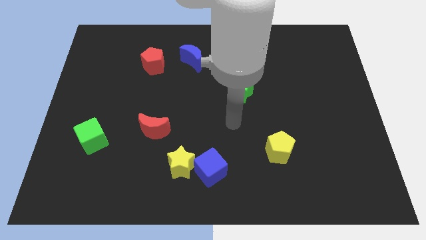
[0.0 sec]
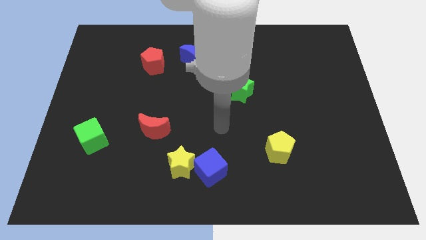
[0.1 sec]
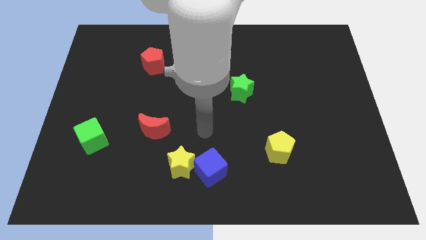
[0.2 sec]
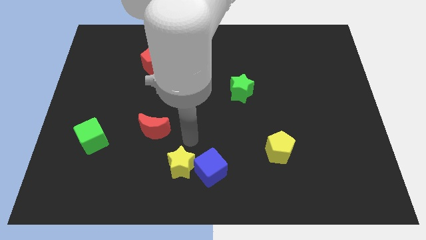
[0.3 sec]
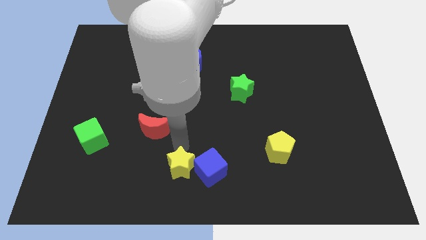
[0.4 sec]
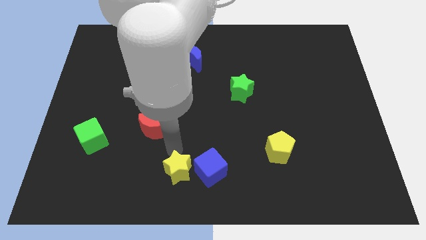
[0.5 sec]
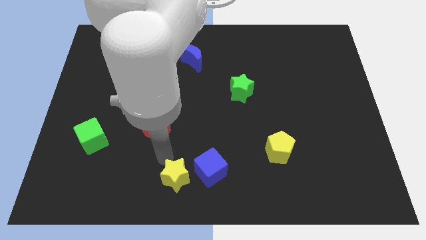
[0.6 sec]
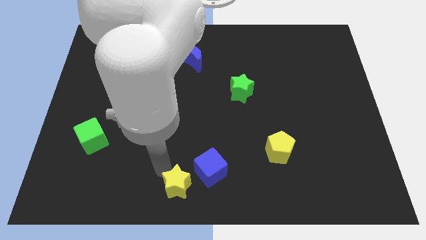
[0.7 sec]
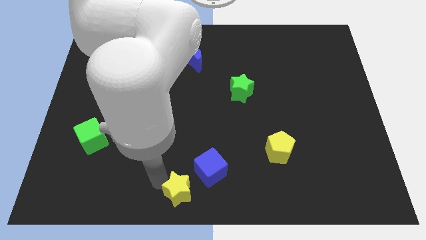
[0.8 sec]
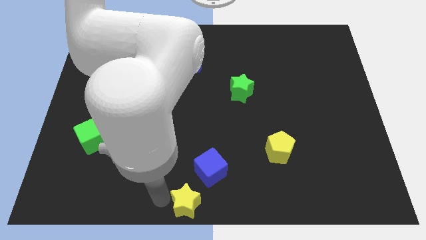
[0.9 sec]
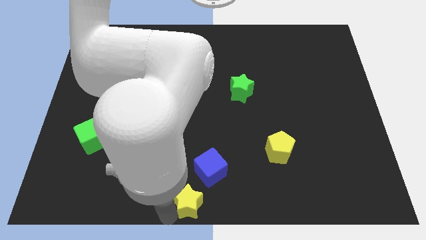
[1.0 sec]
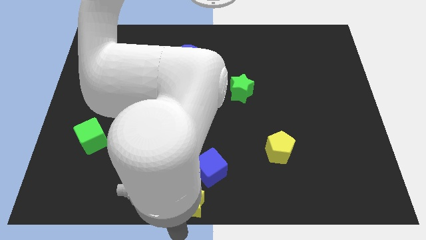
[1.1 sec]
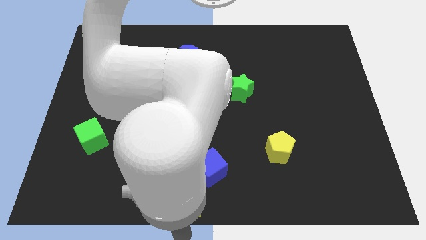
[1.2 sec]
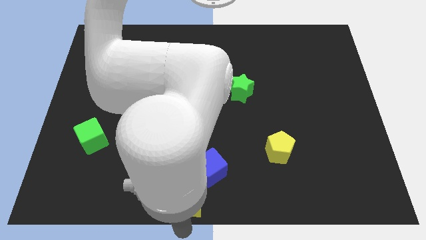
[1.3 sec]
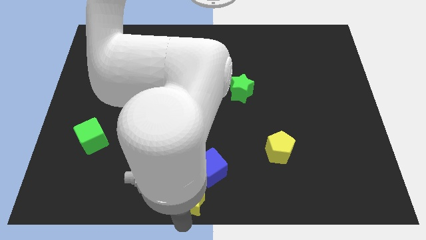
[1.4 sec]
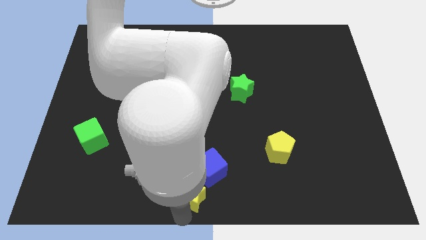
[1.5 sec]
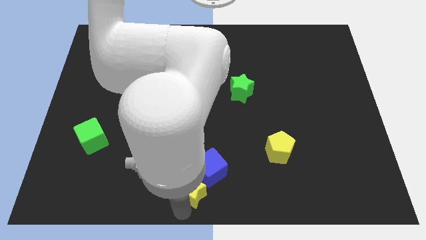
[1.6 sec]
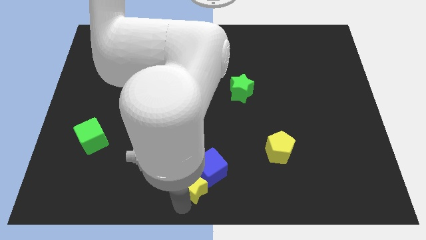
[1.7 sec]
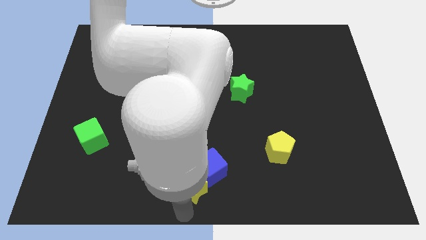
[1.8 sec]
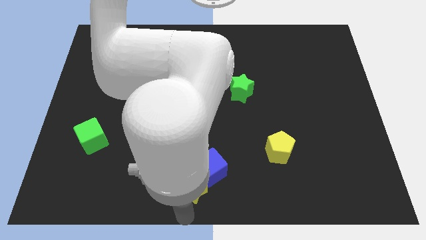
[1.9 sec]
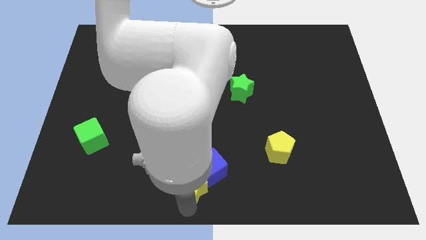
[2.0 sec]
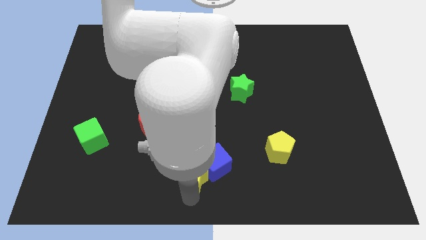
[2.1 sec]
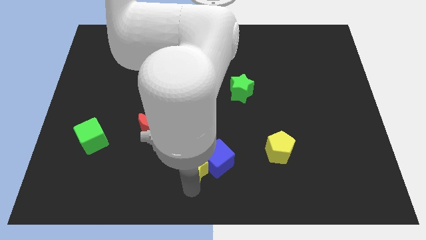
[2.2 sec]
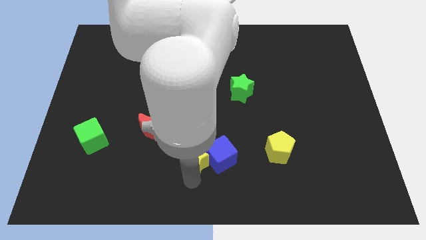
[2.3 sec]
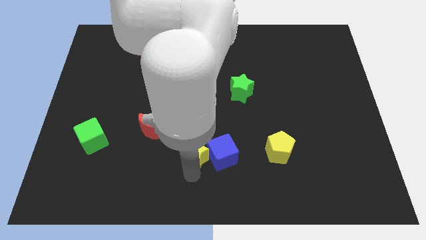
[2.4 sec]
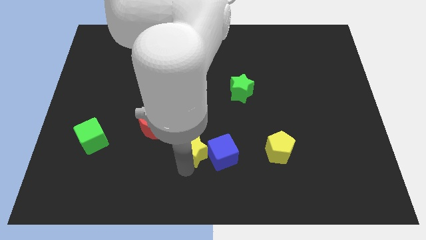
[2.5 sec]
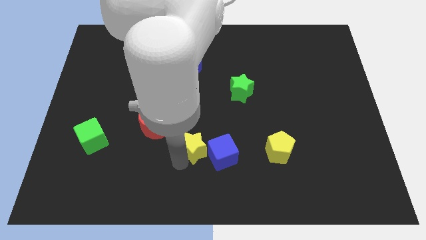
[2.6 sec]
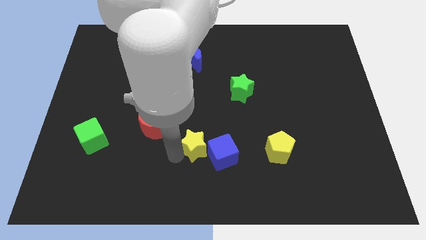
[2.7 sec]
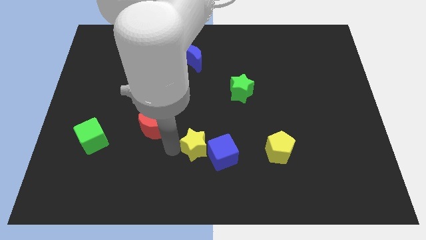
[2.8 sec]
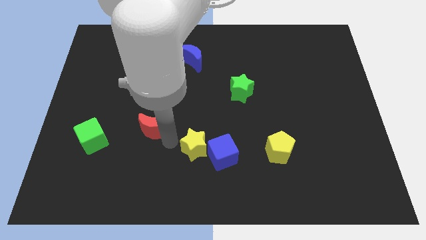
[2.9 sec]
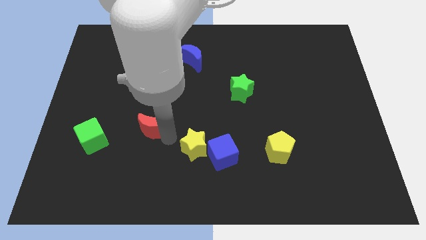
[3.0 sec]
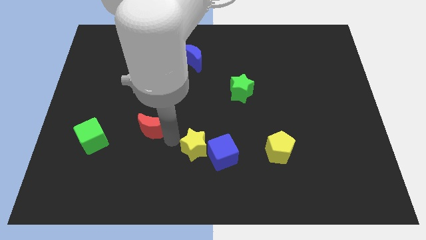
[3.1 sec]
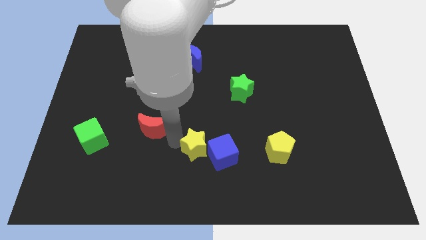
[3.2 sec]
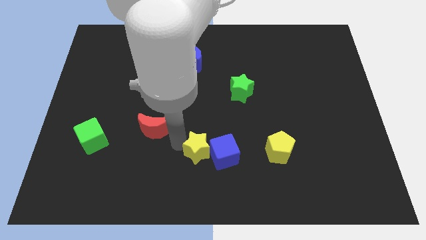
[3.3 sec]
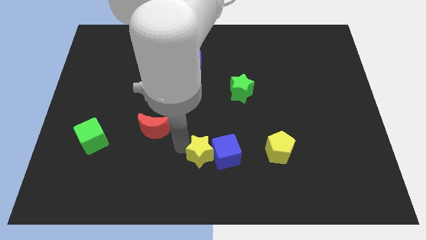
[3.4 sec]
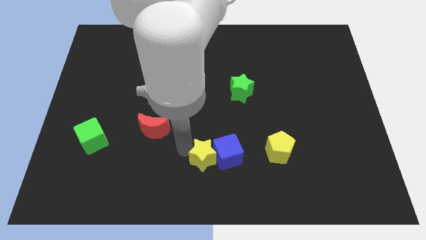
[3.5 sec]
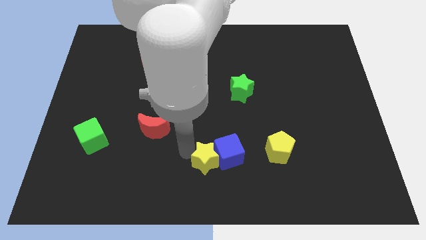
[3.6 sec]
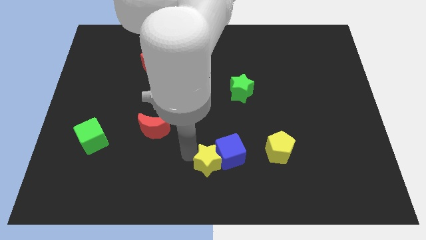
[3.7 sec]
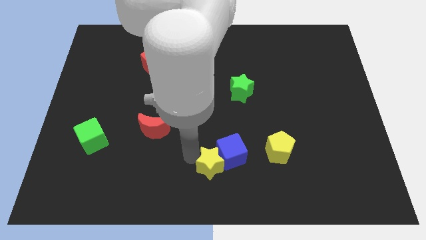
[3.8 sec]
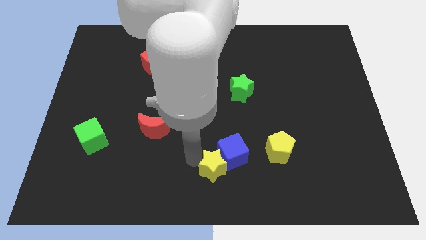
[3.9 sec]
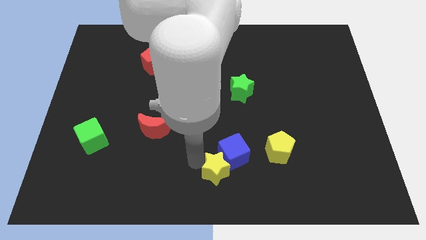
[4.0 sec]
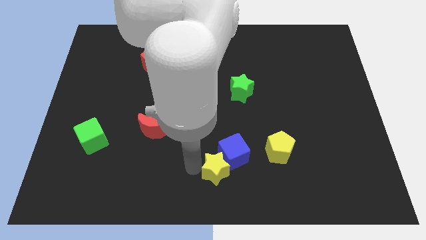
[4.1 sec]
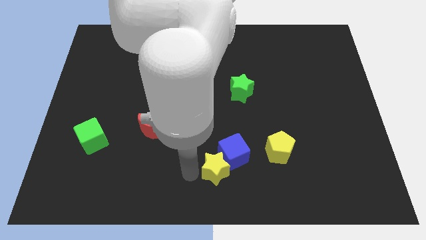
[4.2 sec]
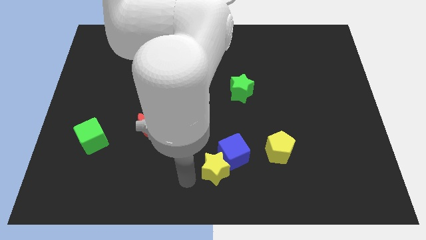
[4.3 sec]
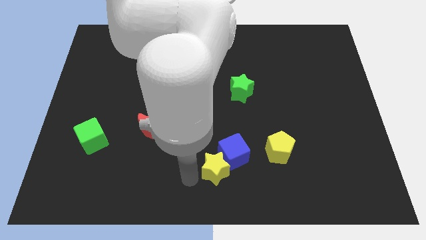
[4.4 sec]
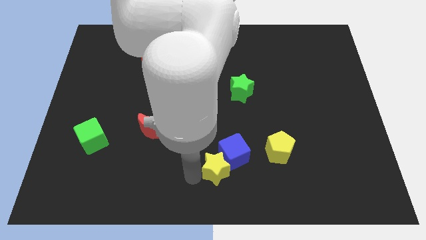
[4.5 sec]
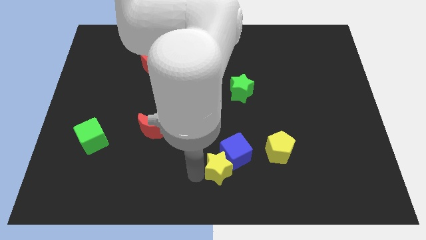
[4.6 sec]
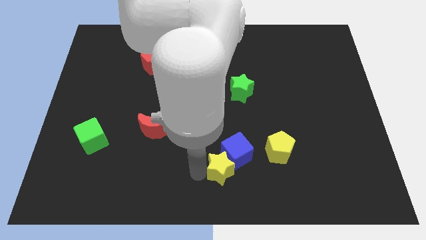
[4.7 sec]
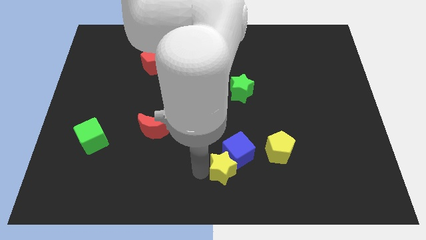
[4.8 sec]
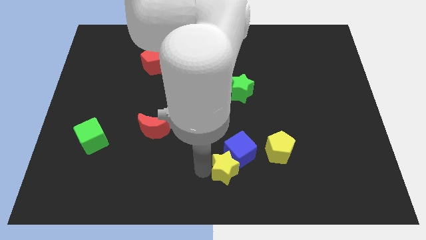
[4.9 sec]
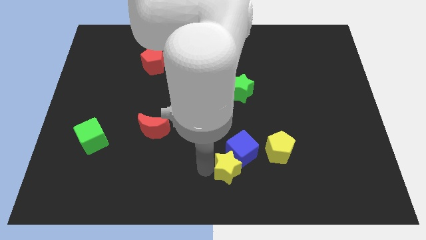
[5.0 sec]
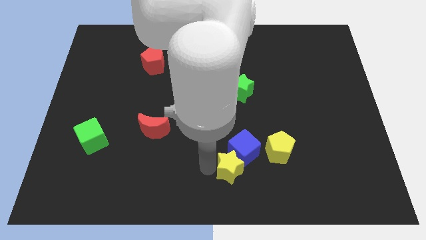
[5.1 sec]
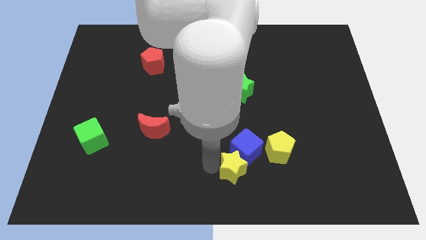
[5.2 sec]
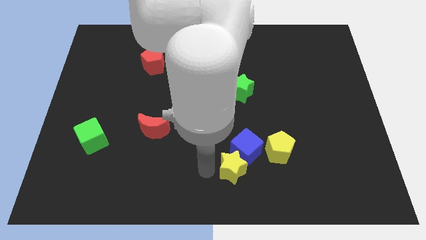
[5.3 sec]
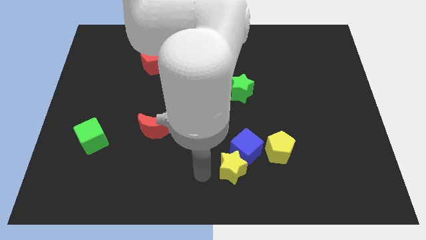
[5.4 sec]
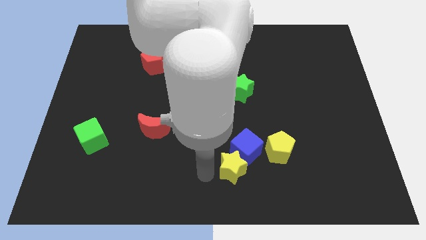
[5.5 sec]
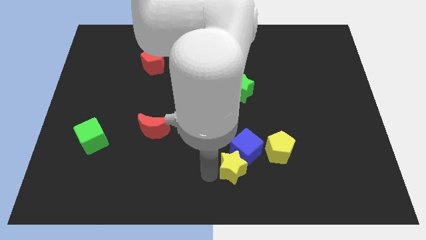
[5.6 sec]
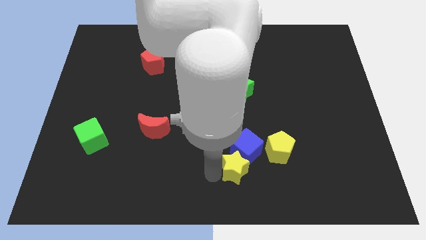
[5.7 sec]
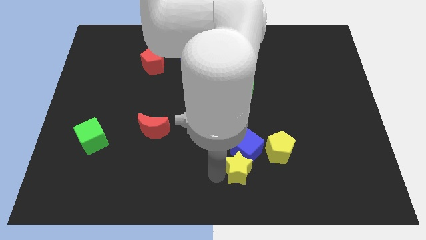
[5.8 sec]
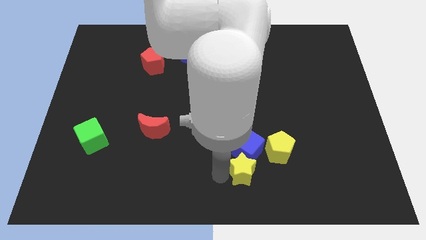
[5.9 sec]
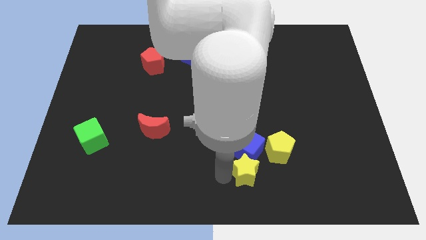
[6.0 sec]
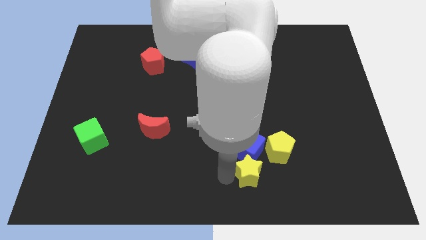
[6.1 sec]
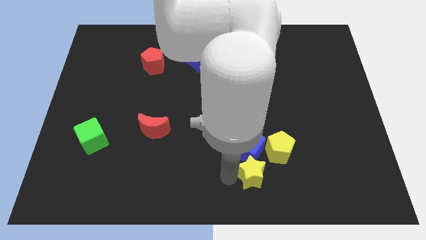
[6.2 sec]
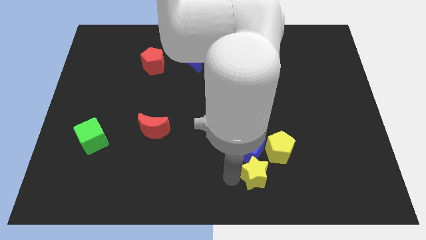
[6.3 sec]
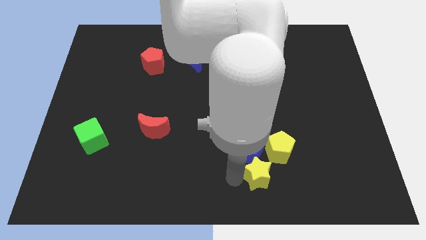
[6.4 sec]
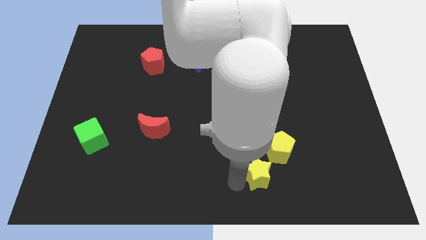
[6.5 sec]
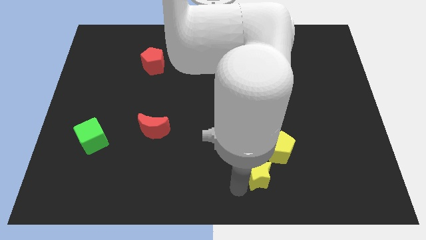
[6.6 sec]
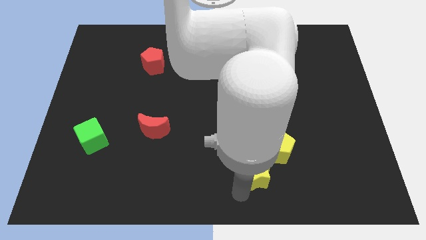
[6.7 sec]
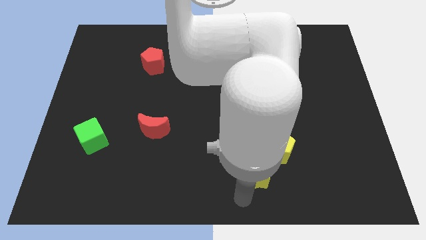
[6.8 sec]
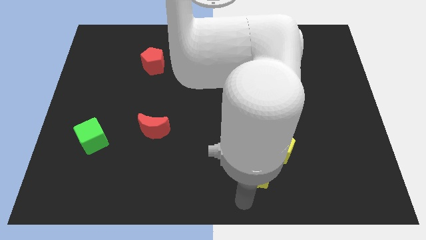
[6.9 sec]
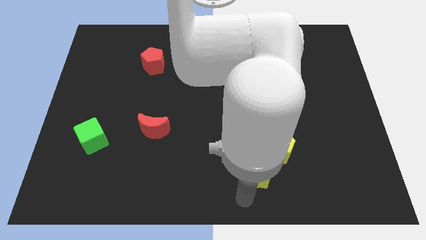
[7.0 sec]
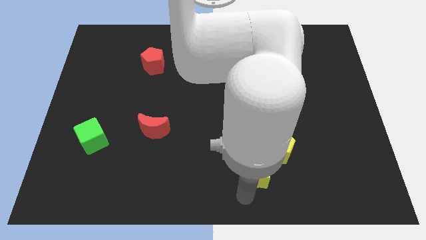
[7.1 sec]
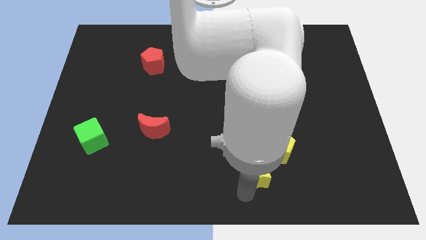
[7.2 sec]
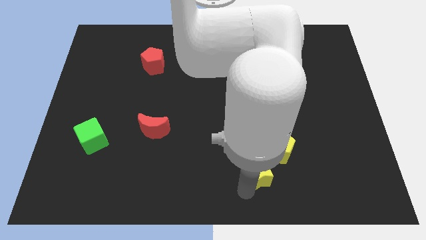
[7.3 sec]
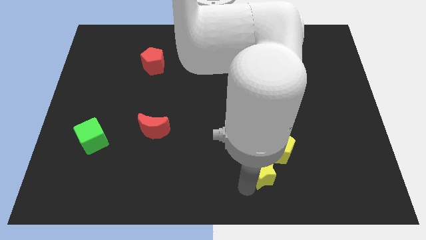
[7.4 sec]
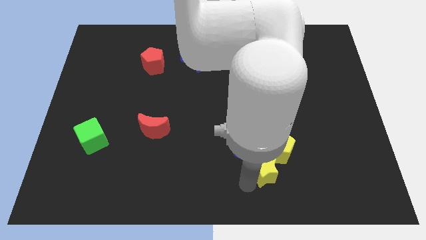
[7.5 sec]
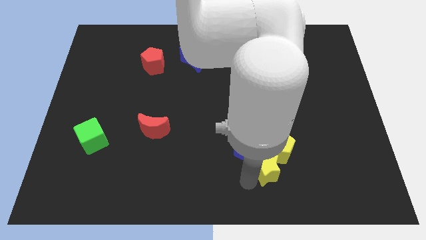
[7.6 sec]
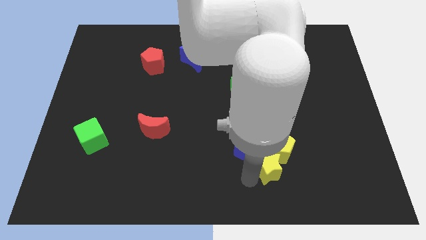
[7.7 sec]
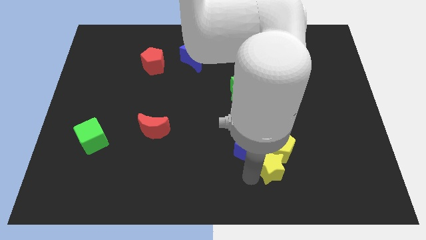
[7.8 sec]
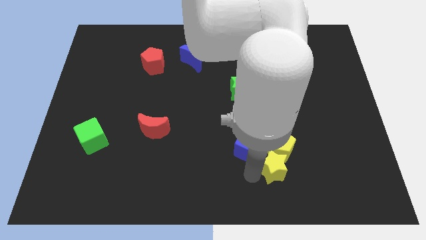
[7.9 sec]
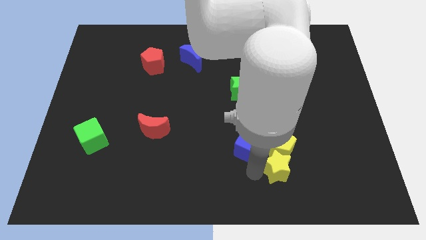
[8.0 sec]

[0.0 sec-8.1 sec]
slide the yellow star right
